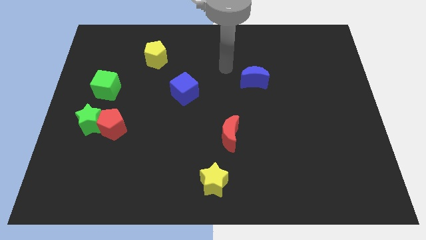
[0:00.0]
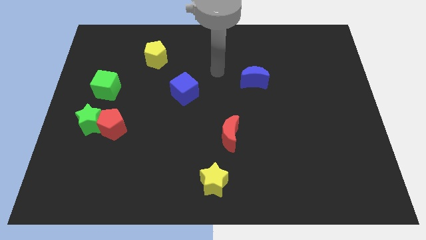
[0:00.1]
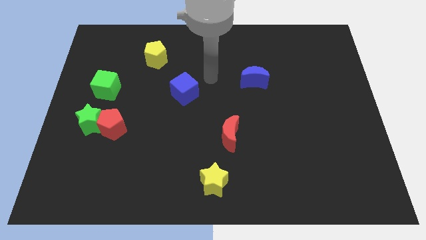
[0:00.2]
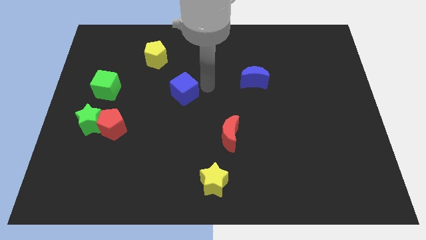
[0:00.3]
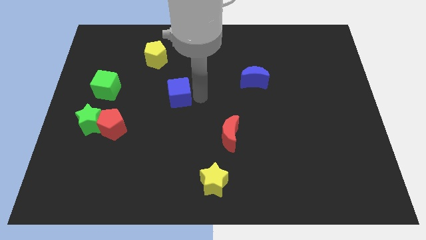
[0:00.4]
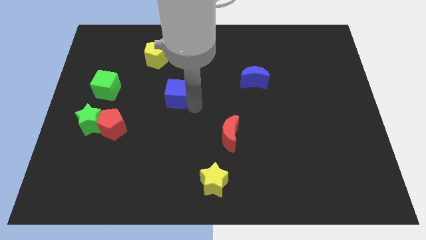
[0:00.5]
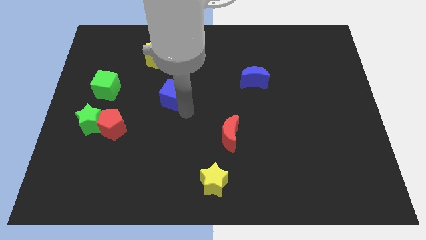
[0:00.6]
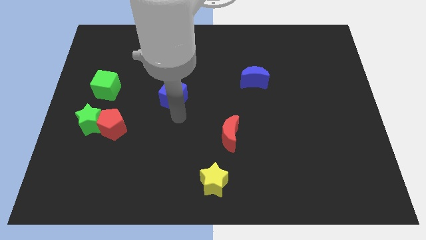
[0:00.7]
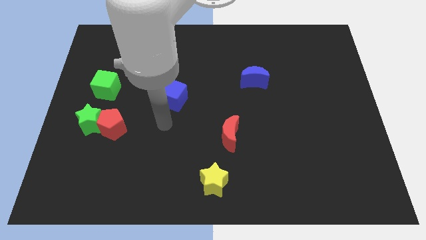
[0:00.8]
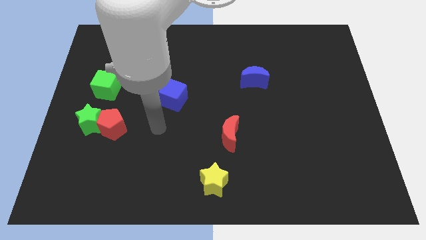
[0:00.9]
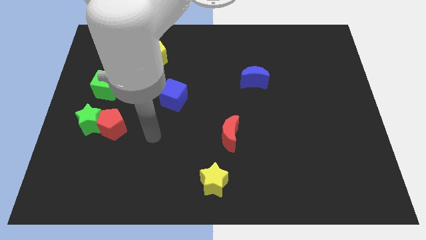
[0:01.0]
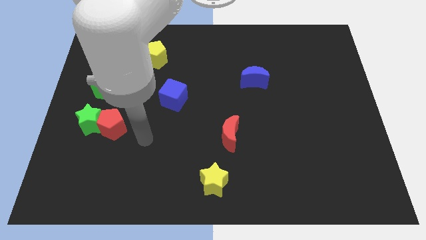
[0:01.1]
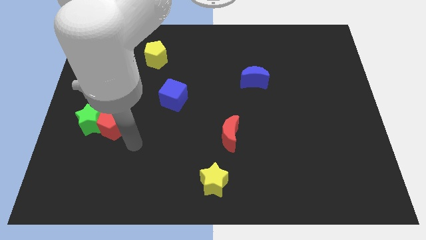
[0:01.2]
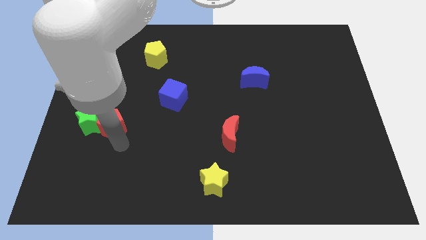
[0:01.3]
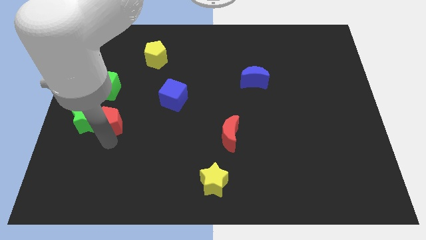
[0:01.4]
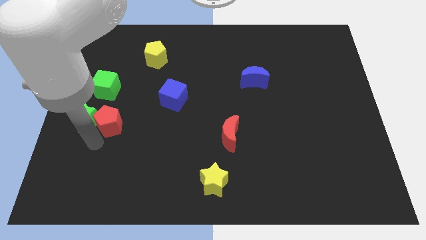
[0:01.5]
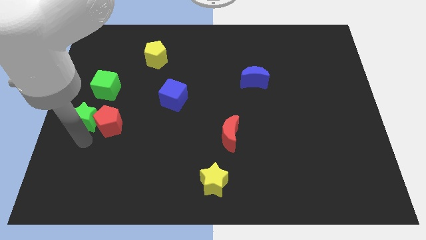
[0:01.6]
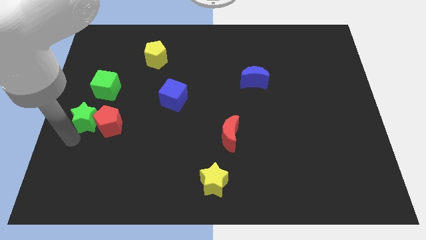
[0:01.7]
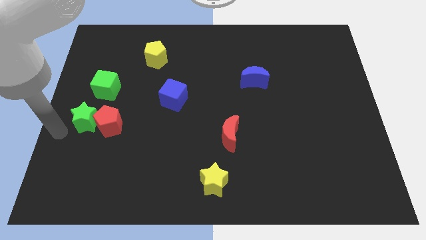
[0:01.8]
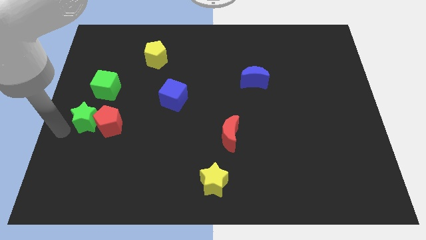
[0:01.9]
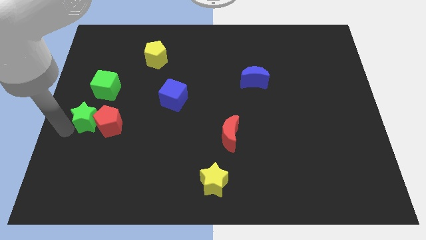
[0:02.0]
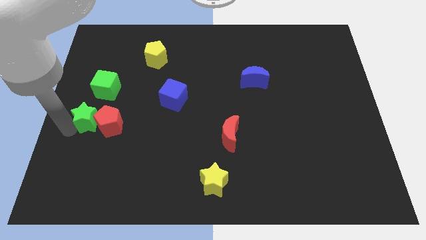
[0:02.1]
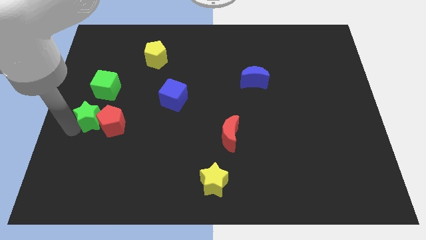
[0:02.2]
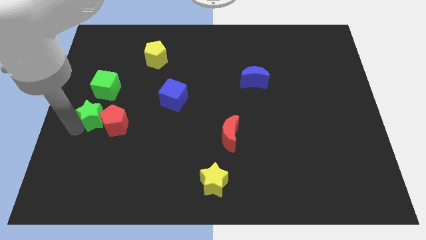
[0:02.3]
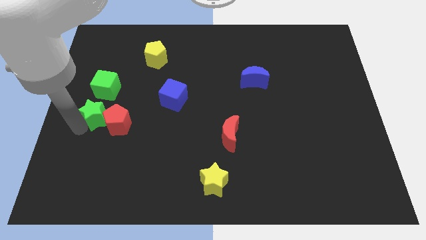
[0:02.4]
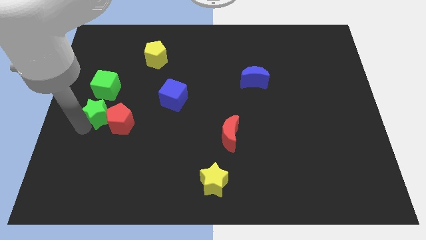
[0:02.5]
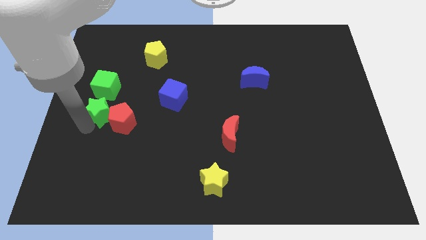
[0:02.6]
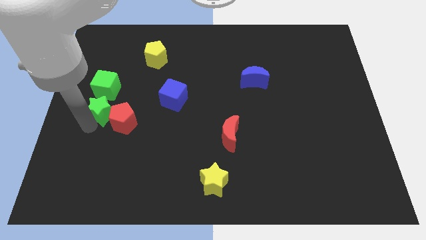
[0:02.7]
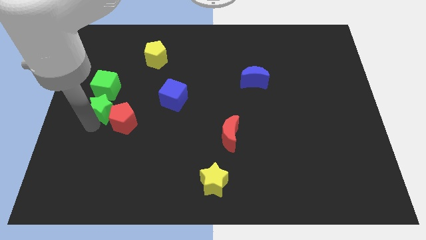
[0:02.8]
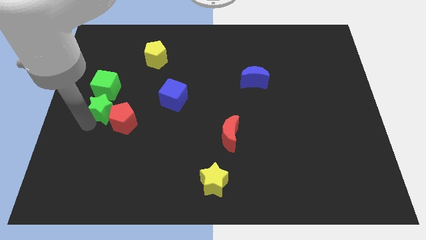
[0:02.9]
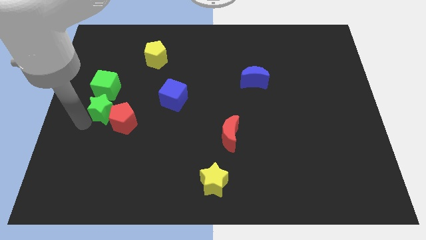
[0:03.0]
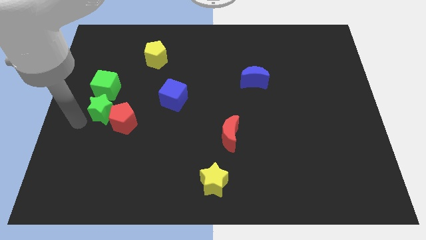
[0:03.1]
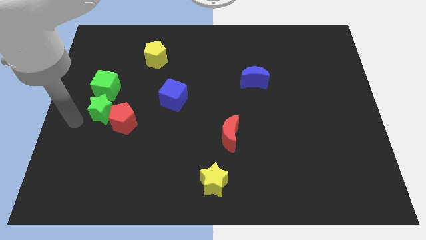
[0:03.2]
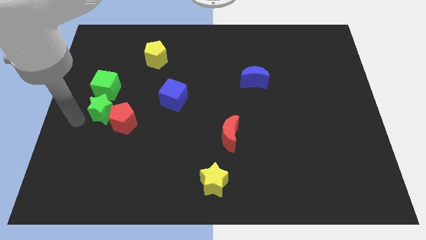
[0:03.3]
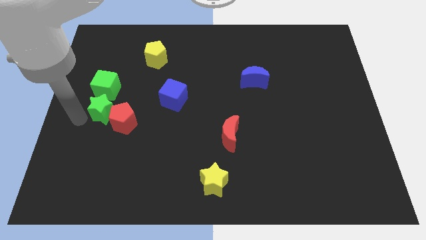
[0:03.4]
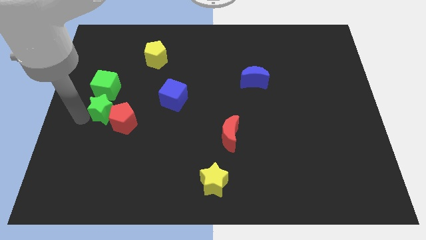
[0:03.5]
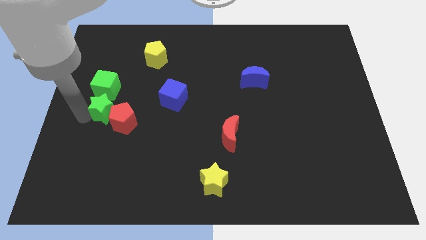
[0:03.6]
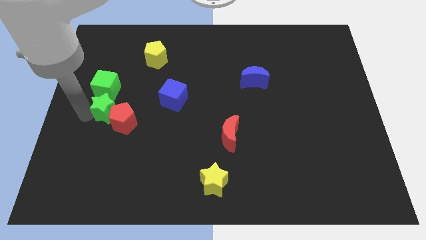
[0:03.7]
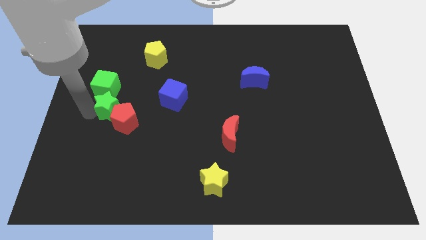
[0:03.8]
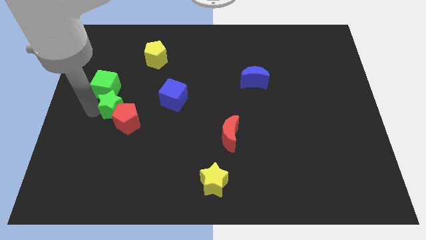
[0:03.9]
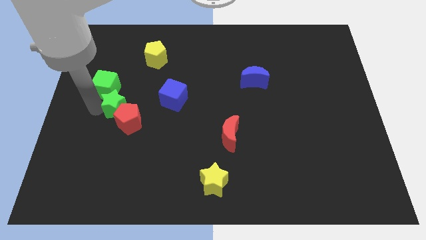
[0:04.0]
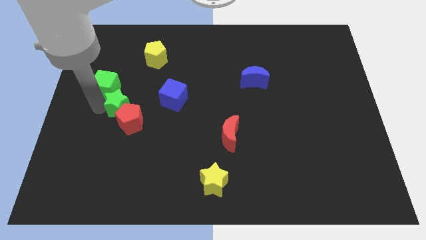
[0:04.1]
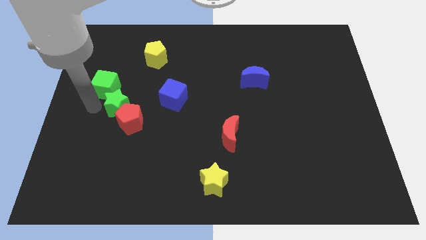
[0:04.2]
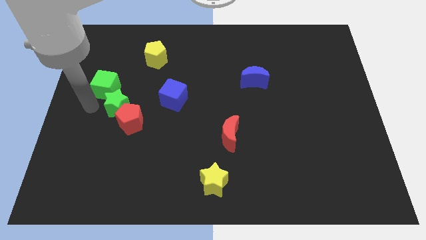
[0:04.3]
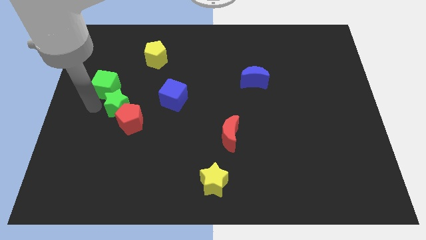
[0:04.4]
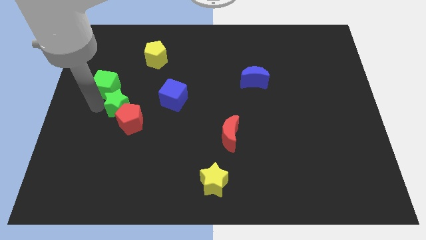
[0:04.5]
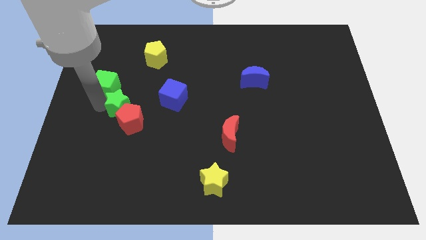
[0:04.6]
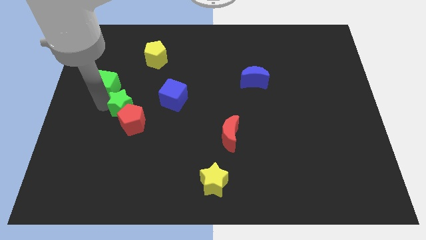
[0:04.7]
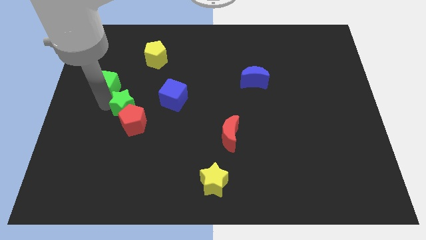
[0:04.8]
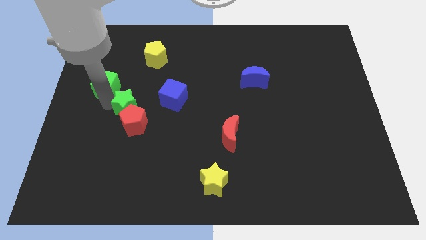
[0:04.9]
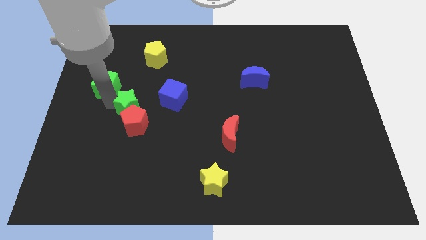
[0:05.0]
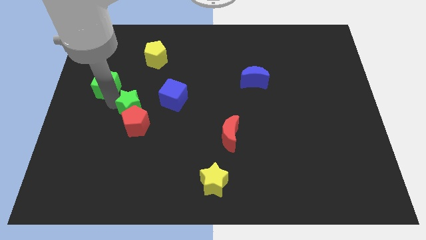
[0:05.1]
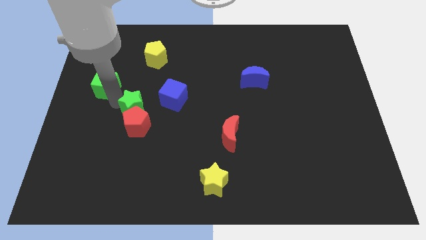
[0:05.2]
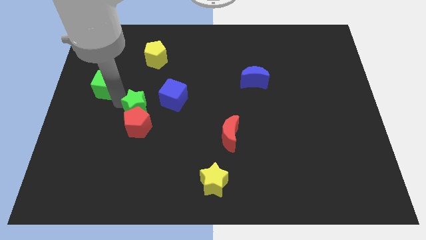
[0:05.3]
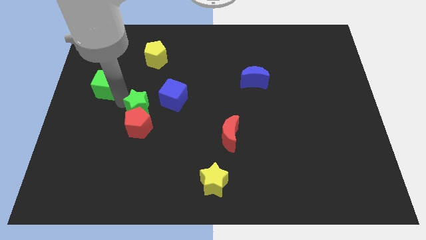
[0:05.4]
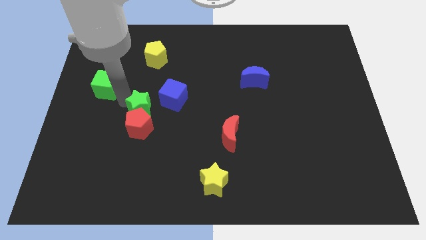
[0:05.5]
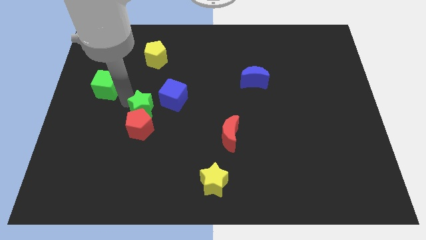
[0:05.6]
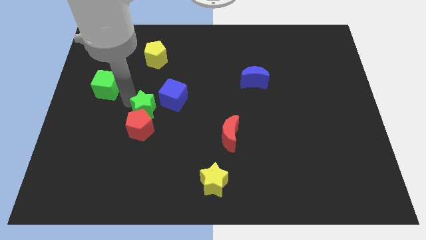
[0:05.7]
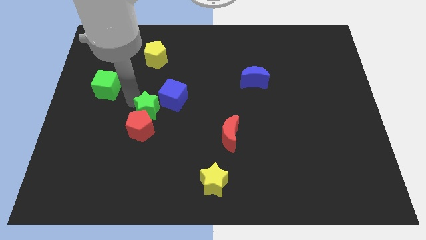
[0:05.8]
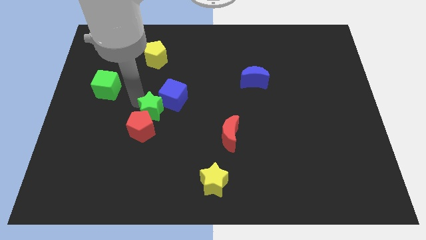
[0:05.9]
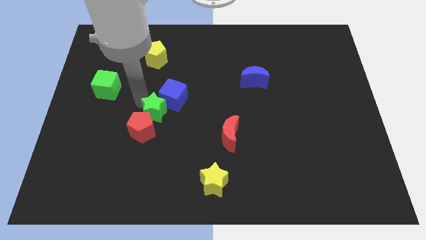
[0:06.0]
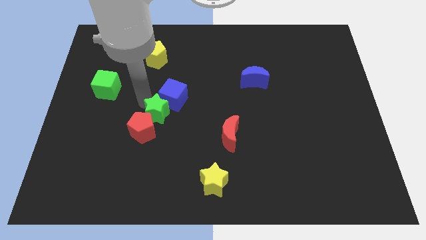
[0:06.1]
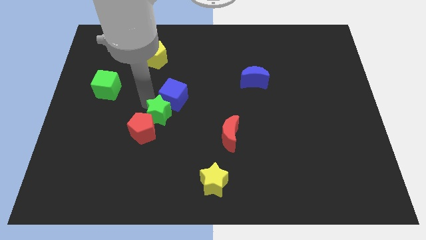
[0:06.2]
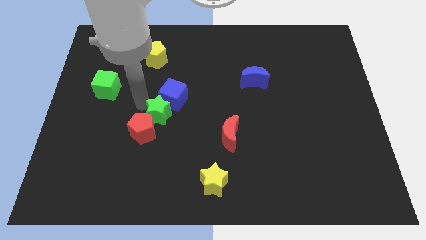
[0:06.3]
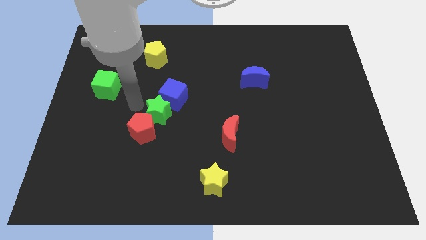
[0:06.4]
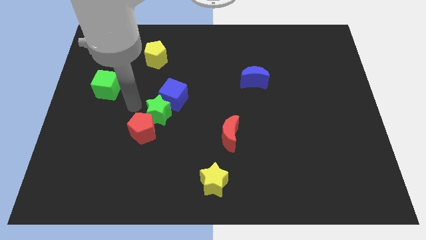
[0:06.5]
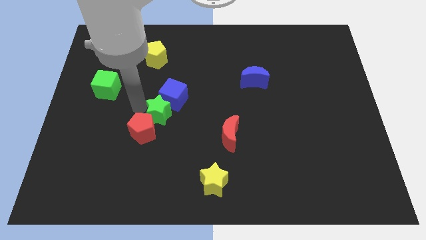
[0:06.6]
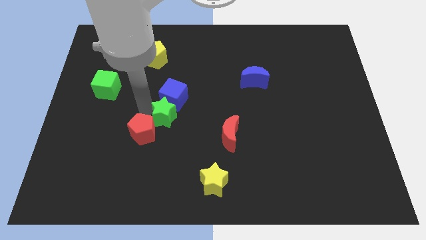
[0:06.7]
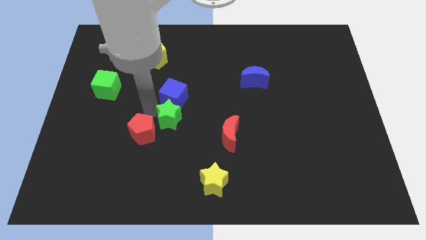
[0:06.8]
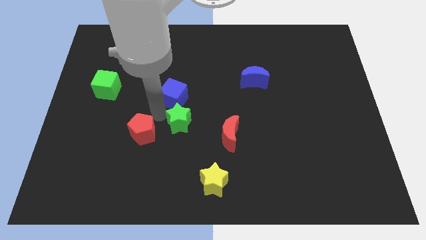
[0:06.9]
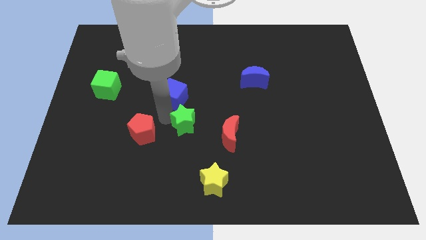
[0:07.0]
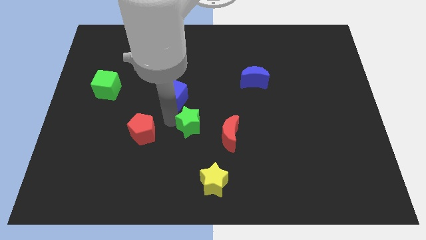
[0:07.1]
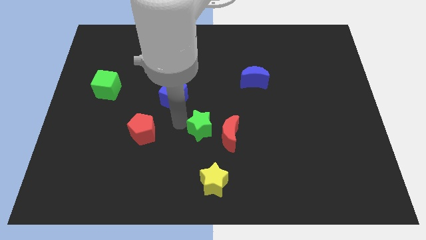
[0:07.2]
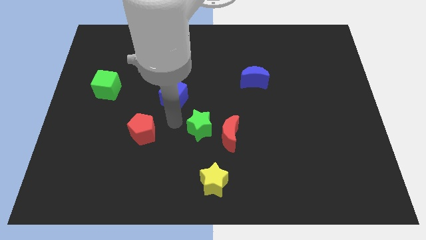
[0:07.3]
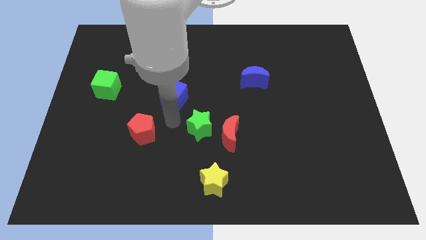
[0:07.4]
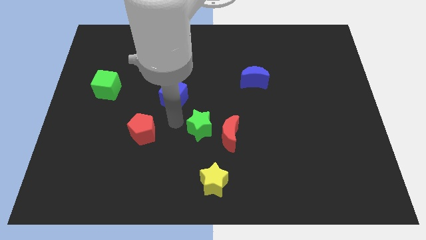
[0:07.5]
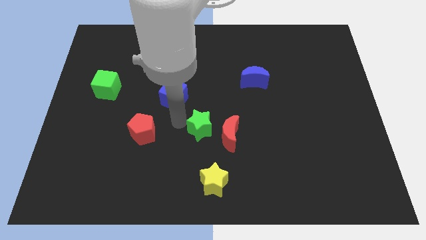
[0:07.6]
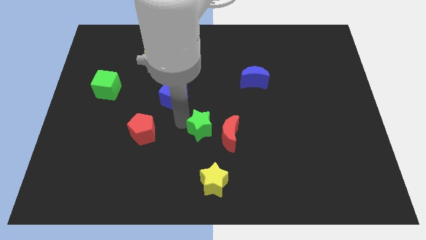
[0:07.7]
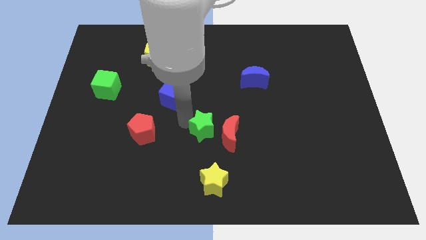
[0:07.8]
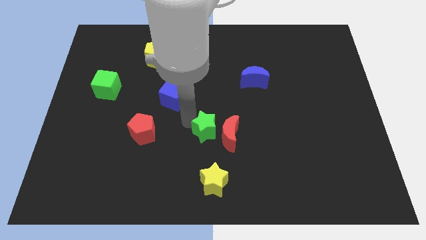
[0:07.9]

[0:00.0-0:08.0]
slide the green star next to the red moon
